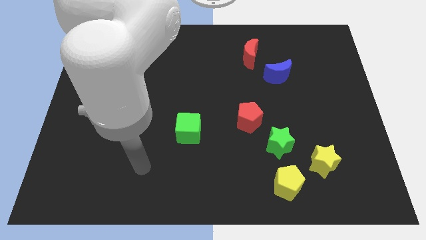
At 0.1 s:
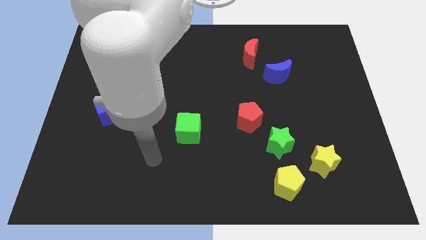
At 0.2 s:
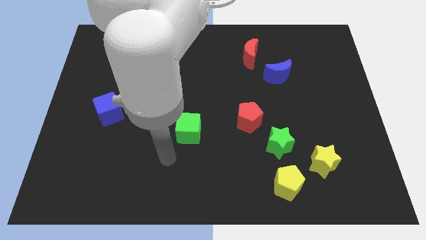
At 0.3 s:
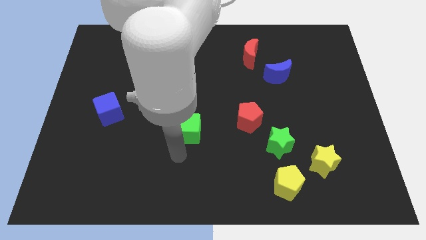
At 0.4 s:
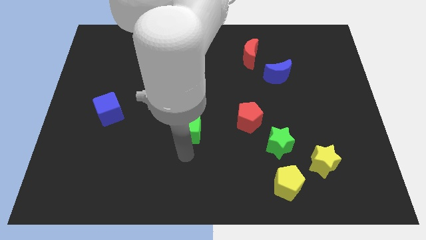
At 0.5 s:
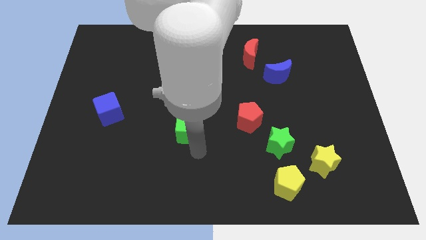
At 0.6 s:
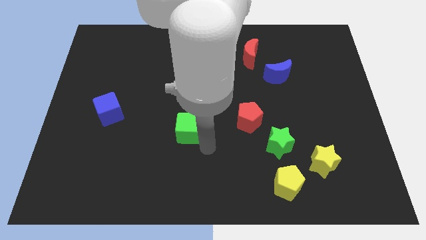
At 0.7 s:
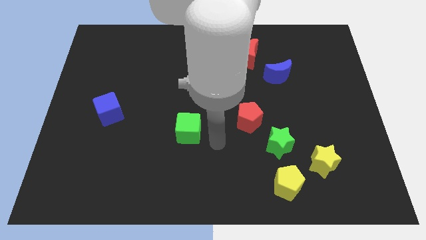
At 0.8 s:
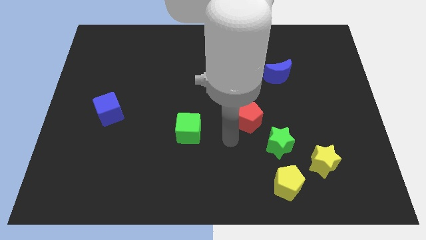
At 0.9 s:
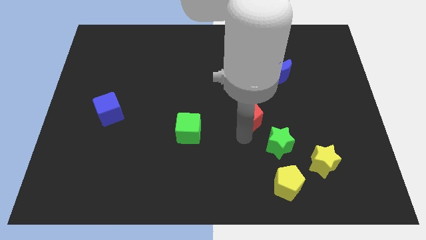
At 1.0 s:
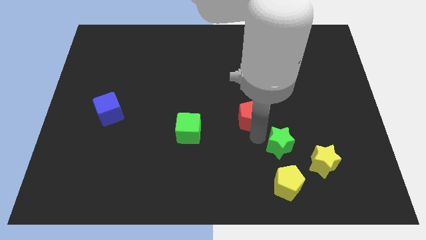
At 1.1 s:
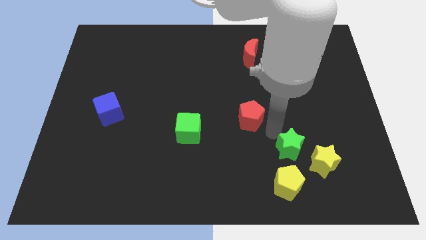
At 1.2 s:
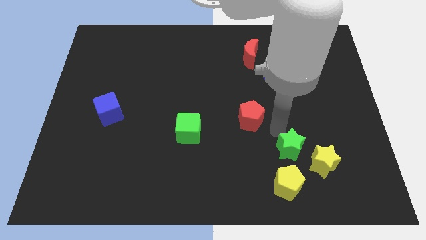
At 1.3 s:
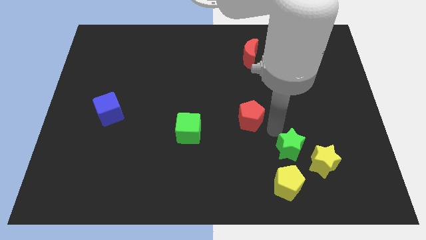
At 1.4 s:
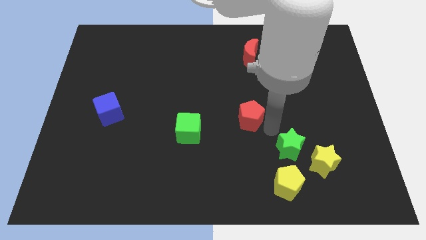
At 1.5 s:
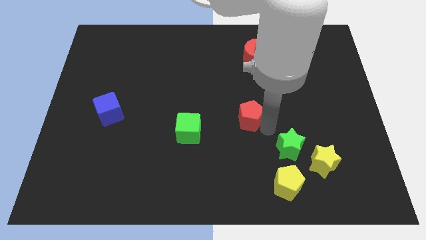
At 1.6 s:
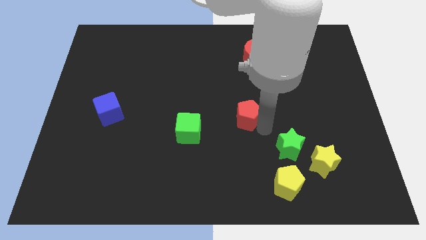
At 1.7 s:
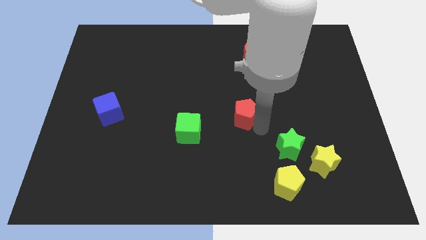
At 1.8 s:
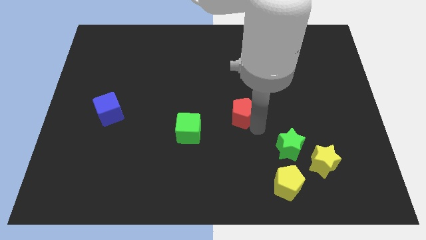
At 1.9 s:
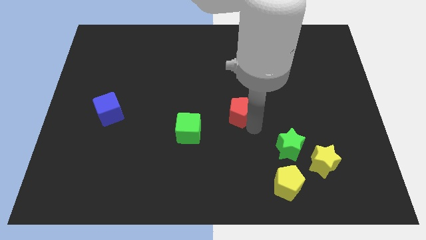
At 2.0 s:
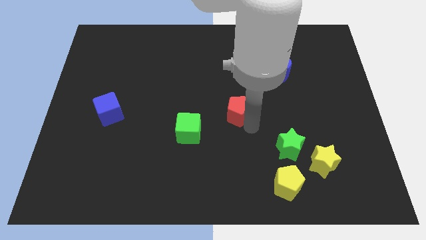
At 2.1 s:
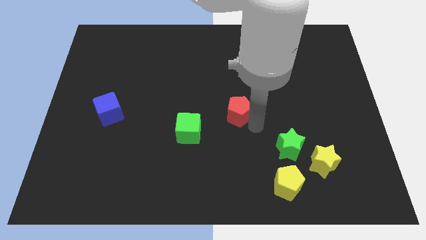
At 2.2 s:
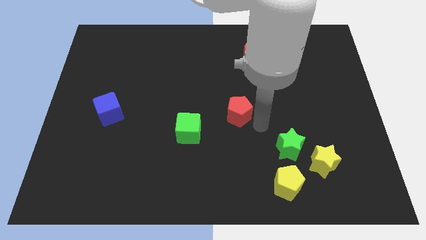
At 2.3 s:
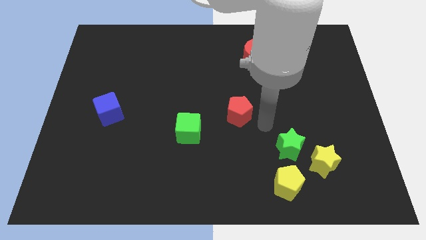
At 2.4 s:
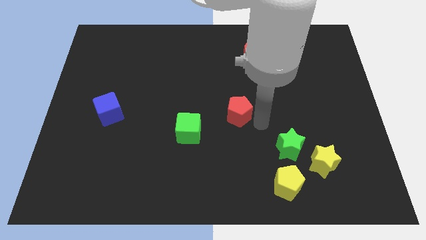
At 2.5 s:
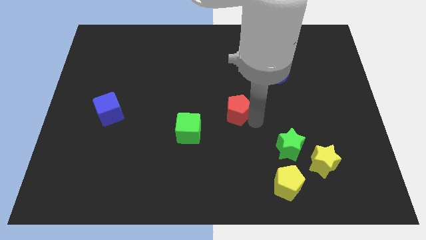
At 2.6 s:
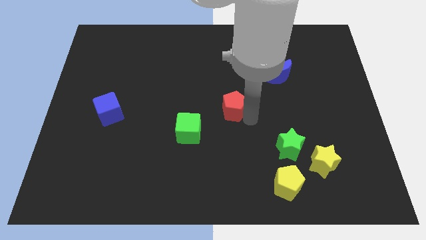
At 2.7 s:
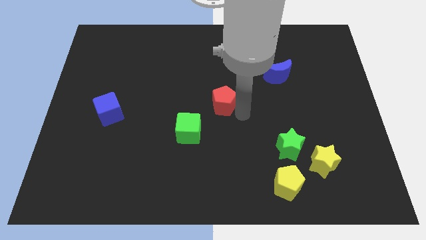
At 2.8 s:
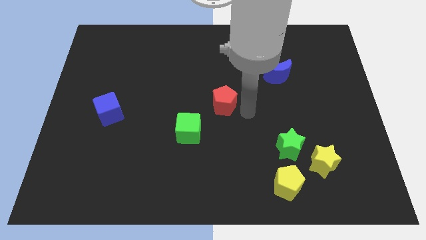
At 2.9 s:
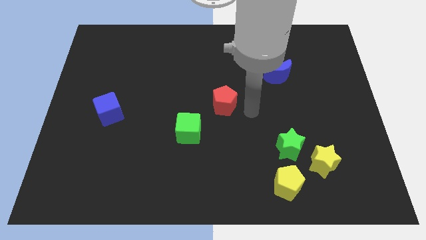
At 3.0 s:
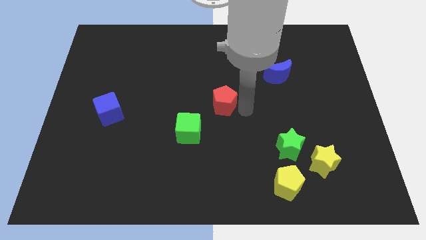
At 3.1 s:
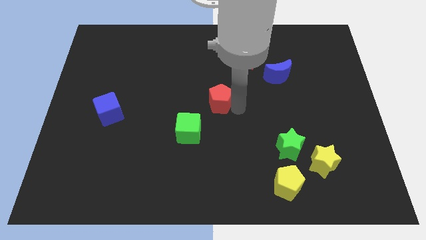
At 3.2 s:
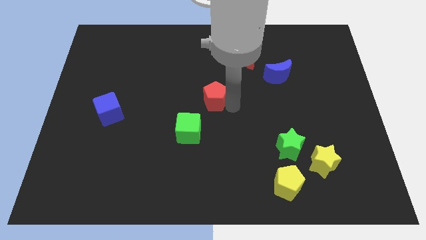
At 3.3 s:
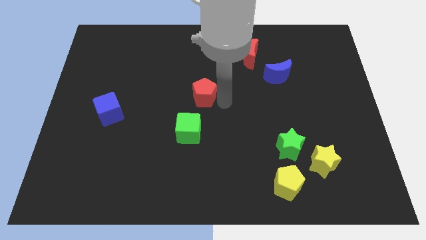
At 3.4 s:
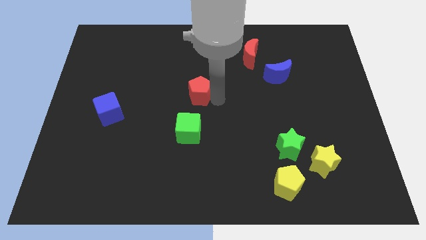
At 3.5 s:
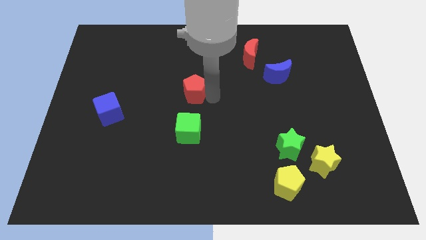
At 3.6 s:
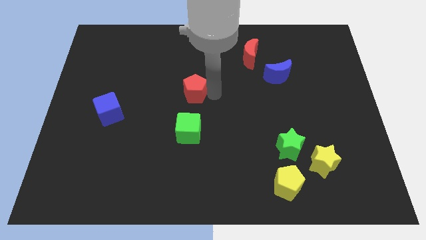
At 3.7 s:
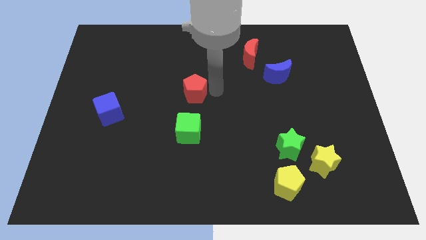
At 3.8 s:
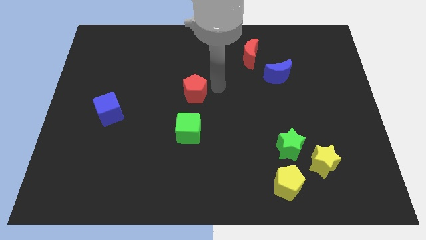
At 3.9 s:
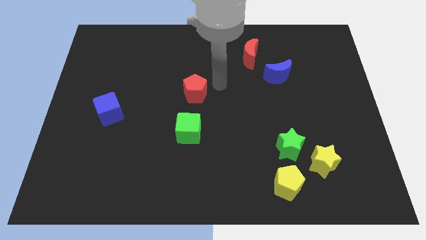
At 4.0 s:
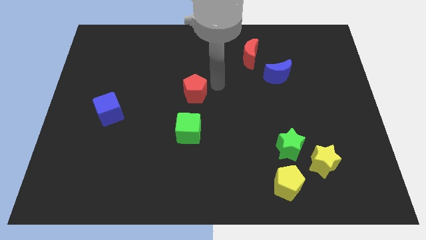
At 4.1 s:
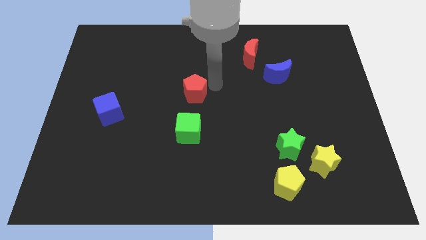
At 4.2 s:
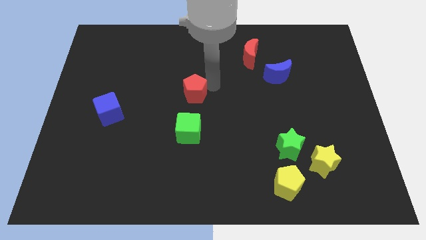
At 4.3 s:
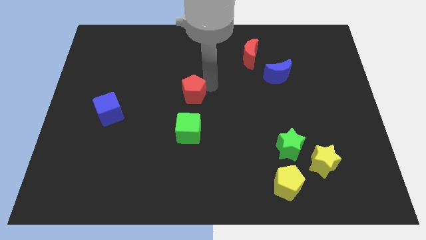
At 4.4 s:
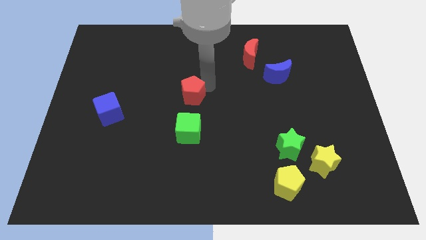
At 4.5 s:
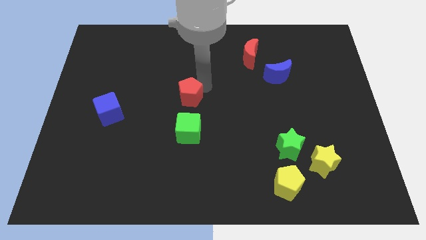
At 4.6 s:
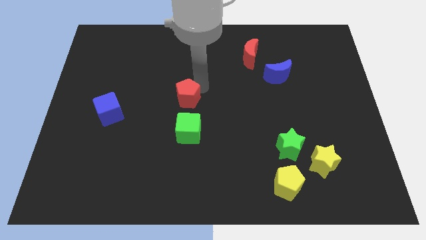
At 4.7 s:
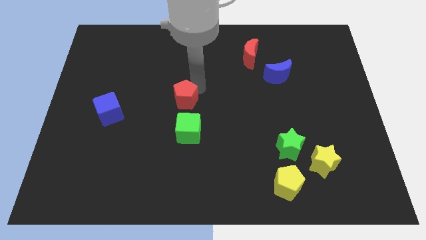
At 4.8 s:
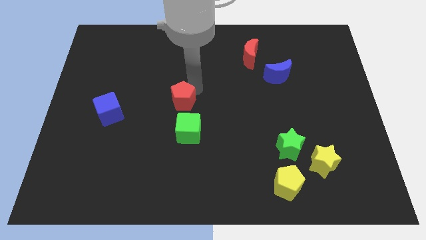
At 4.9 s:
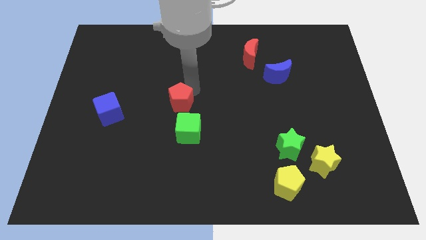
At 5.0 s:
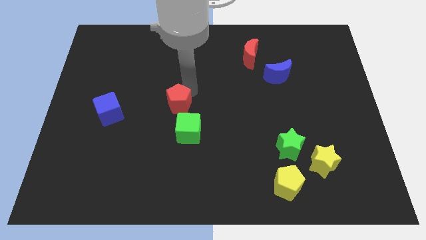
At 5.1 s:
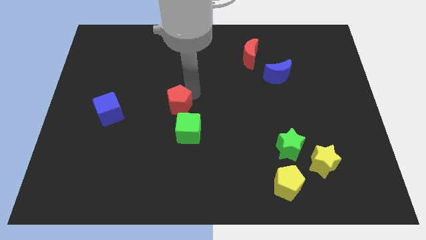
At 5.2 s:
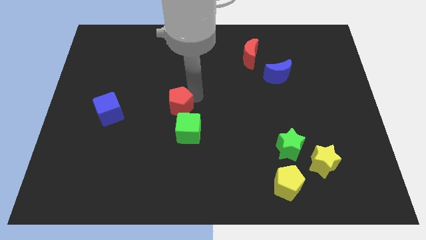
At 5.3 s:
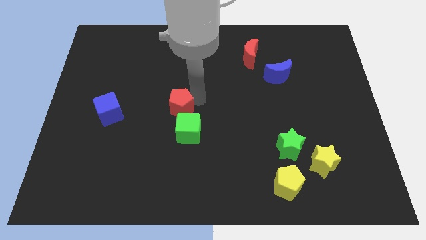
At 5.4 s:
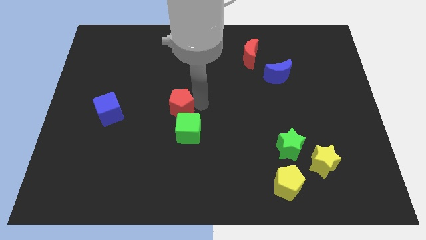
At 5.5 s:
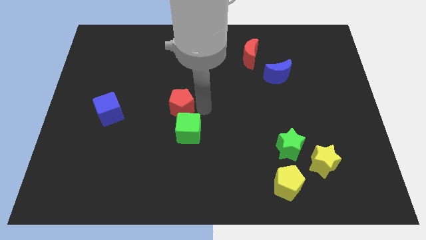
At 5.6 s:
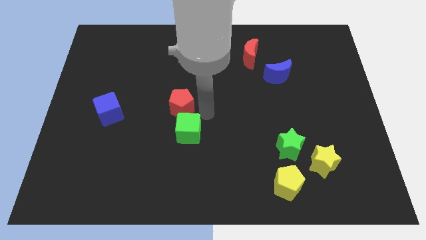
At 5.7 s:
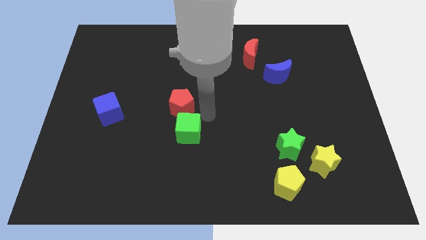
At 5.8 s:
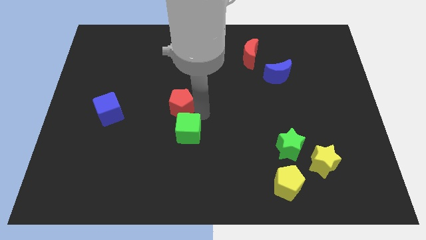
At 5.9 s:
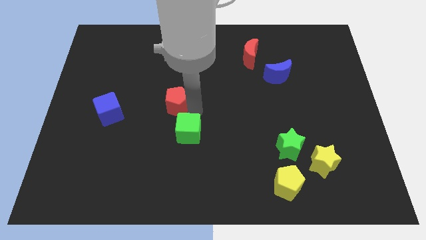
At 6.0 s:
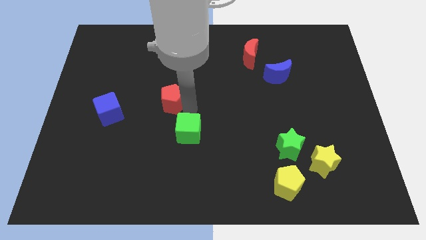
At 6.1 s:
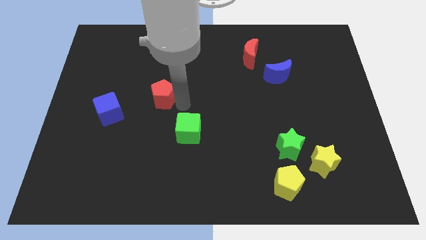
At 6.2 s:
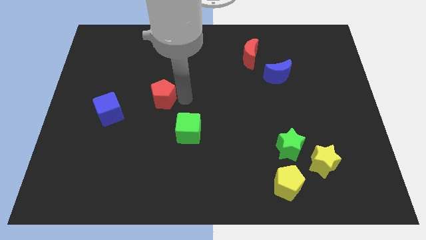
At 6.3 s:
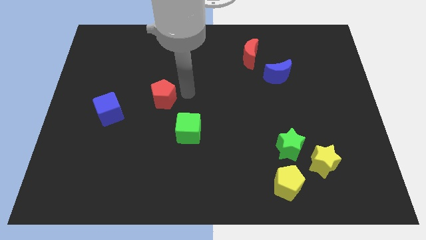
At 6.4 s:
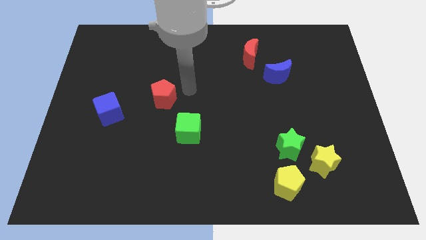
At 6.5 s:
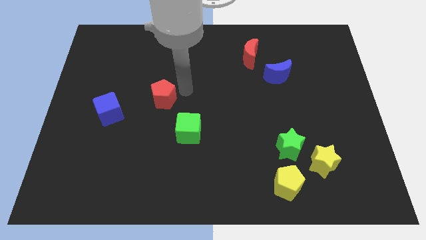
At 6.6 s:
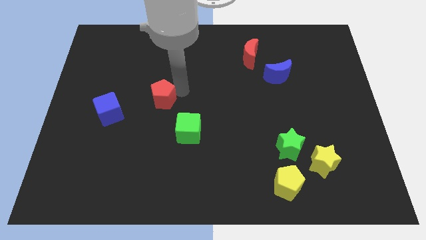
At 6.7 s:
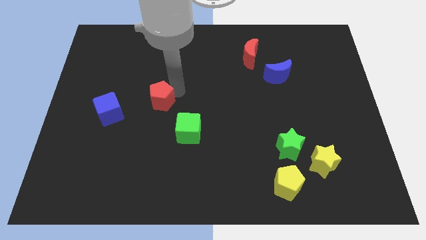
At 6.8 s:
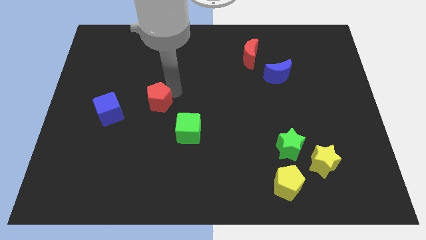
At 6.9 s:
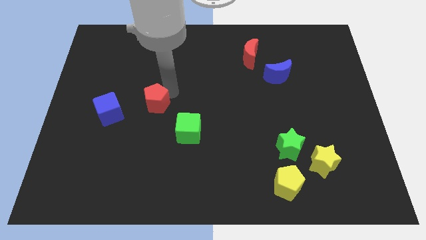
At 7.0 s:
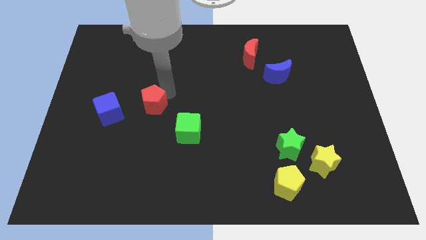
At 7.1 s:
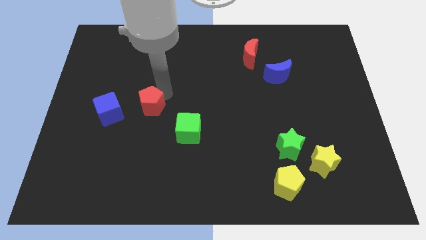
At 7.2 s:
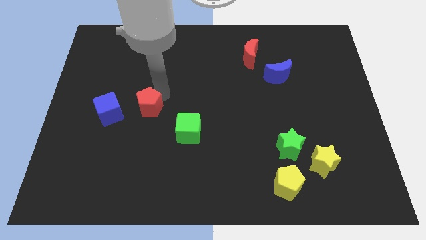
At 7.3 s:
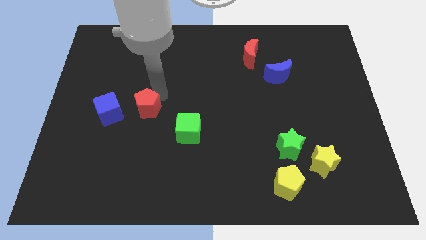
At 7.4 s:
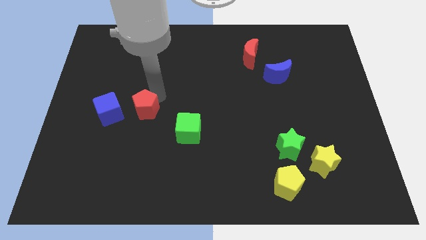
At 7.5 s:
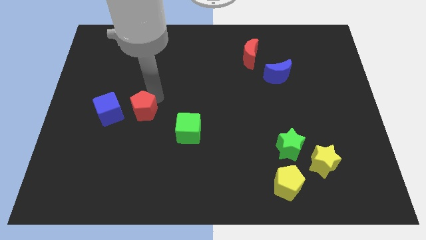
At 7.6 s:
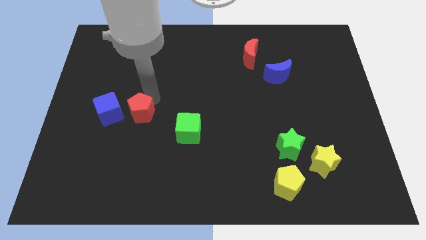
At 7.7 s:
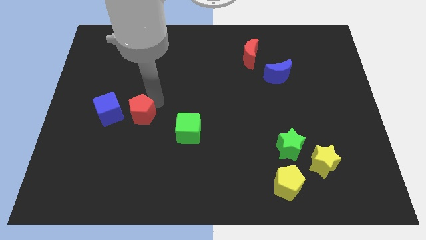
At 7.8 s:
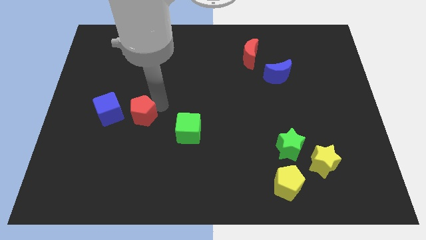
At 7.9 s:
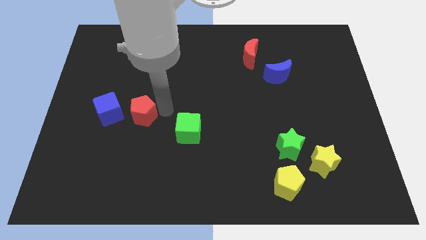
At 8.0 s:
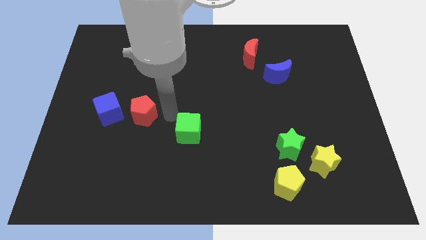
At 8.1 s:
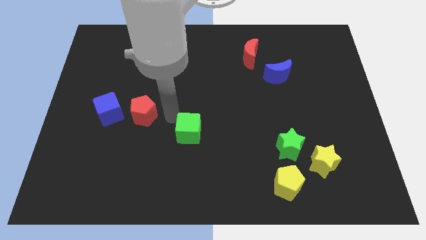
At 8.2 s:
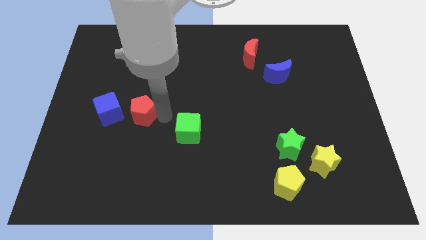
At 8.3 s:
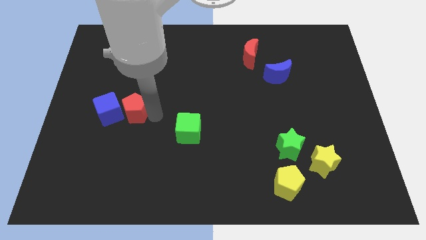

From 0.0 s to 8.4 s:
move the red pentagon towards the blue cube

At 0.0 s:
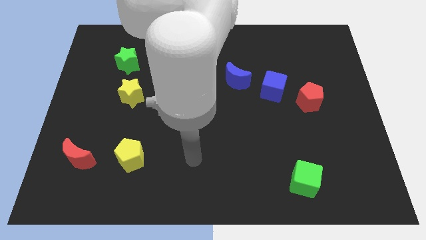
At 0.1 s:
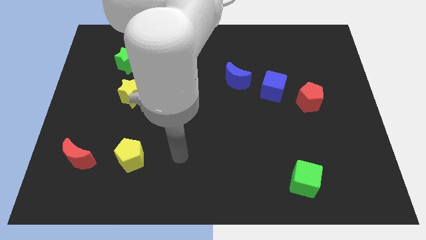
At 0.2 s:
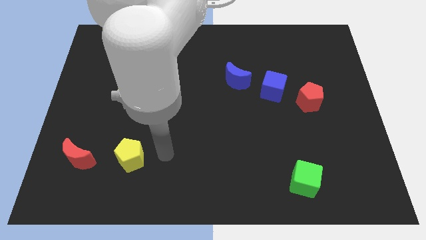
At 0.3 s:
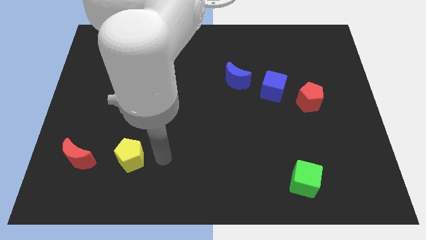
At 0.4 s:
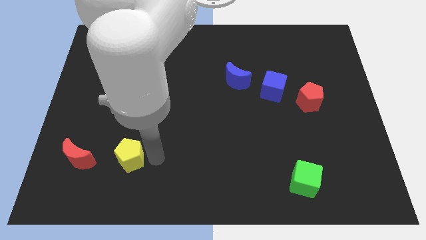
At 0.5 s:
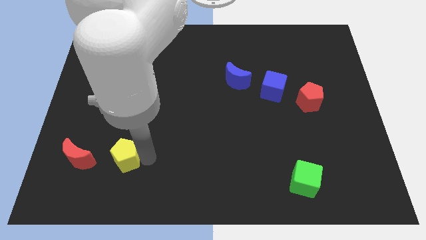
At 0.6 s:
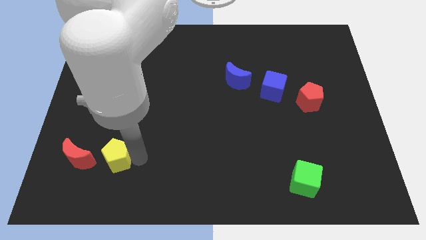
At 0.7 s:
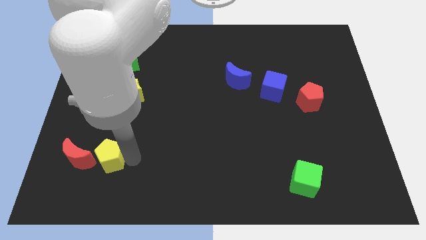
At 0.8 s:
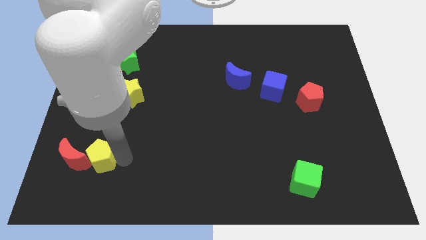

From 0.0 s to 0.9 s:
move the yellow pentagon next to the red moon
